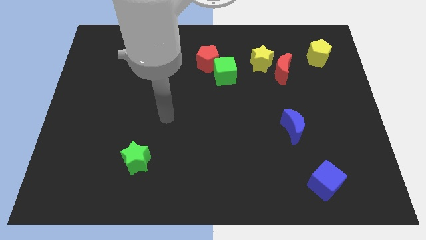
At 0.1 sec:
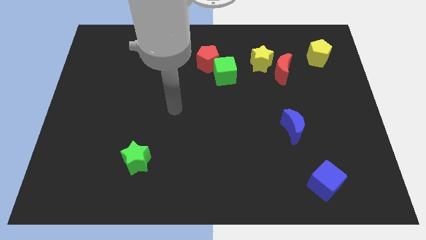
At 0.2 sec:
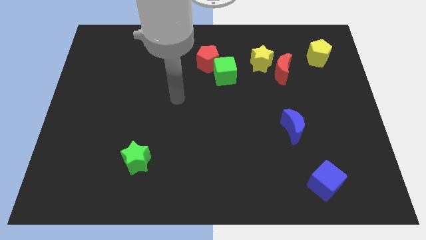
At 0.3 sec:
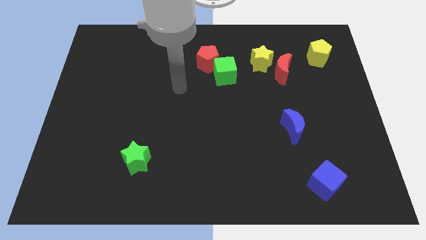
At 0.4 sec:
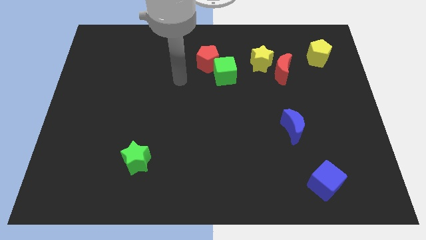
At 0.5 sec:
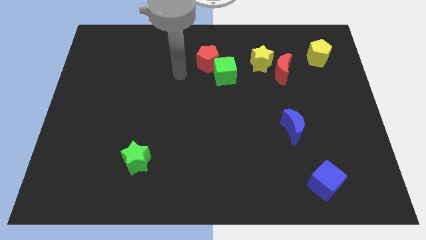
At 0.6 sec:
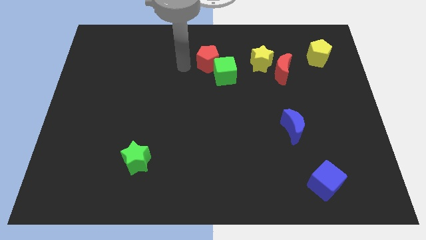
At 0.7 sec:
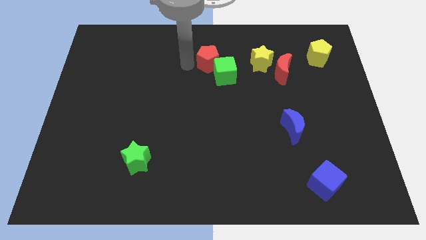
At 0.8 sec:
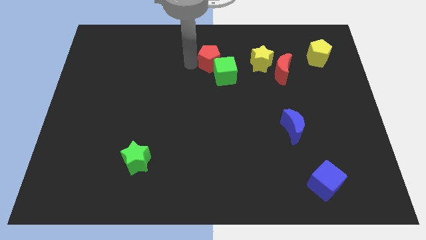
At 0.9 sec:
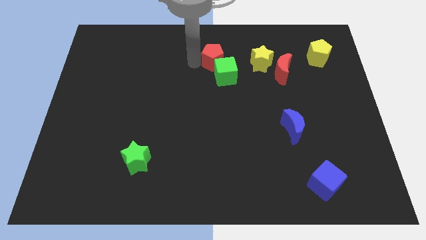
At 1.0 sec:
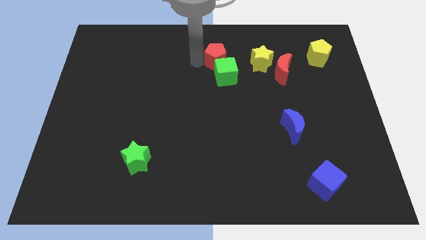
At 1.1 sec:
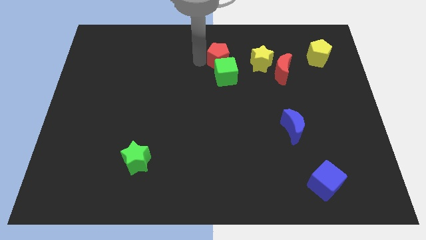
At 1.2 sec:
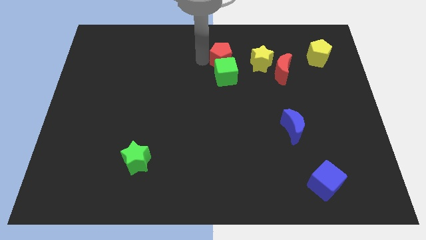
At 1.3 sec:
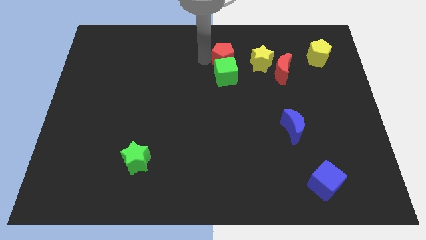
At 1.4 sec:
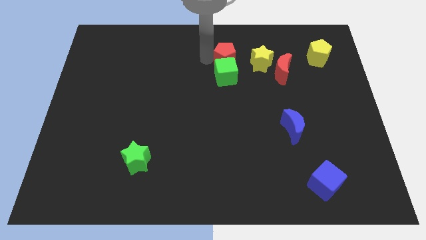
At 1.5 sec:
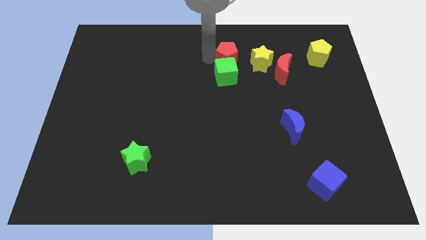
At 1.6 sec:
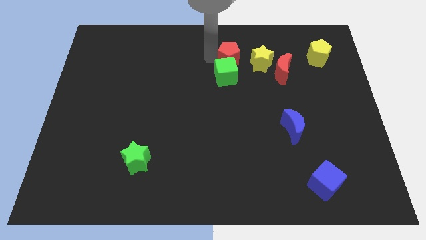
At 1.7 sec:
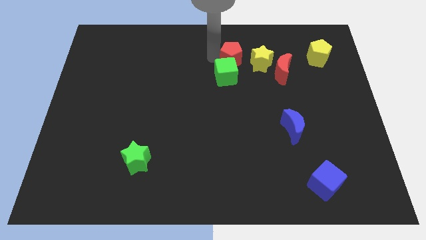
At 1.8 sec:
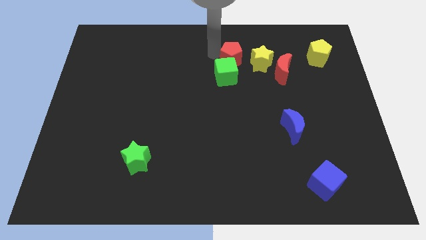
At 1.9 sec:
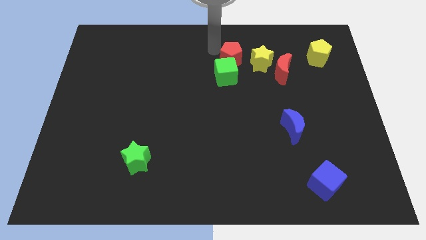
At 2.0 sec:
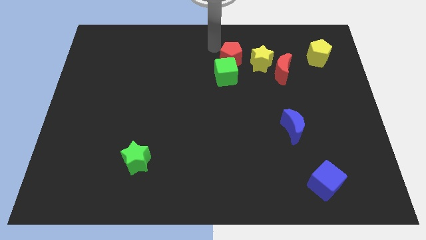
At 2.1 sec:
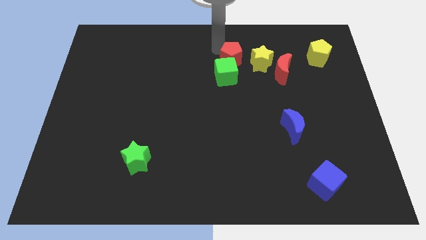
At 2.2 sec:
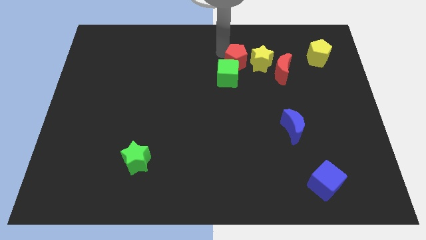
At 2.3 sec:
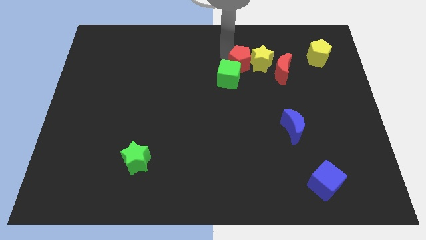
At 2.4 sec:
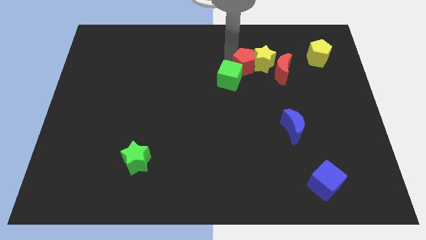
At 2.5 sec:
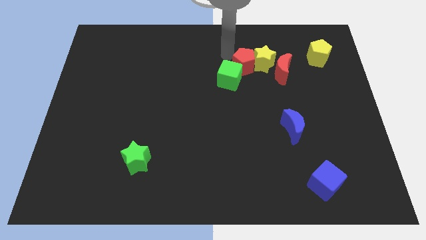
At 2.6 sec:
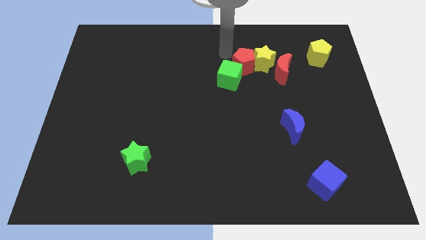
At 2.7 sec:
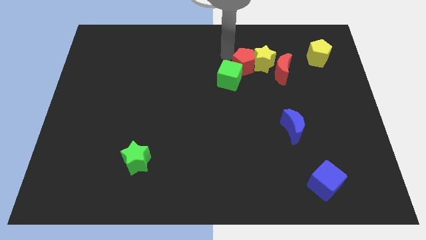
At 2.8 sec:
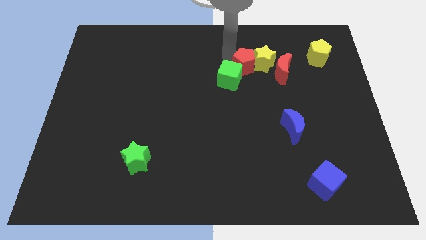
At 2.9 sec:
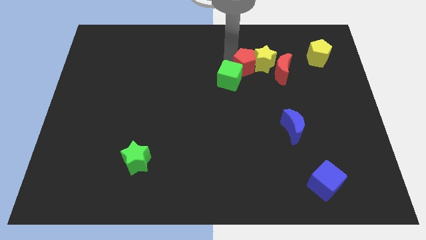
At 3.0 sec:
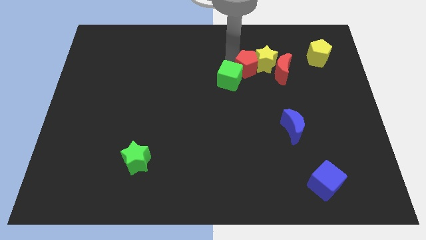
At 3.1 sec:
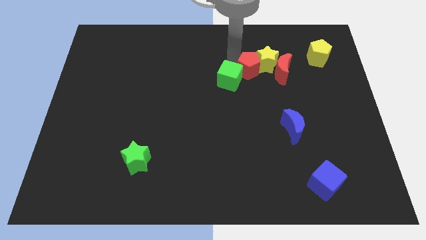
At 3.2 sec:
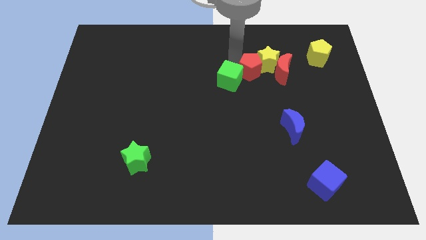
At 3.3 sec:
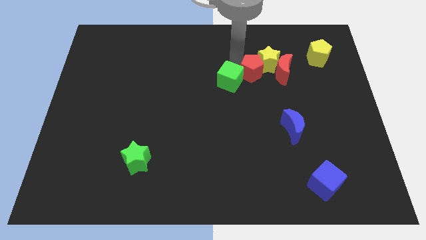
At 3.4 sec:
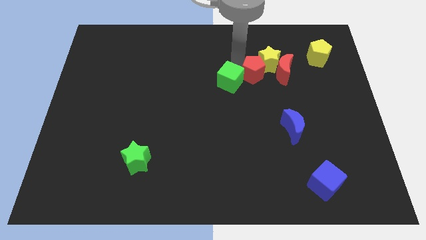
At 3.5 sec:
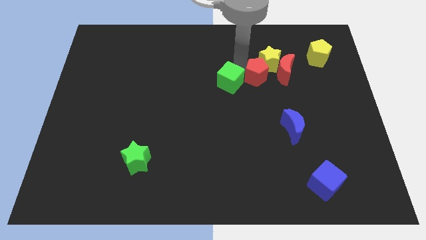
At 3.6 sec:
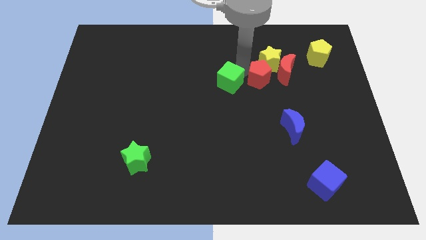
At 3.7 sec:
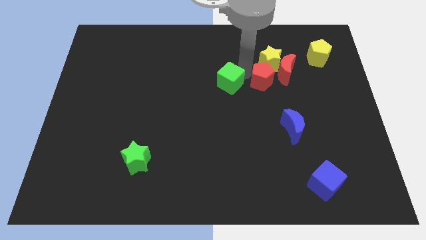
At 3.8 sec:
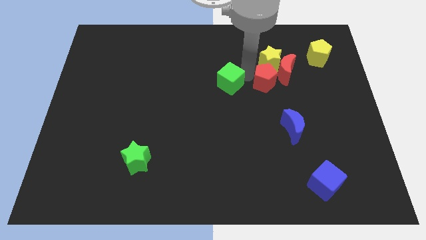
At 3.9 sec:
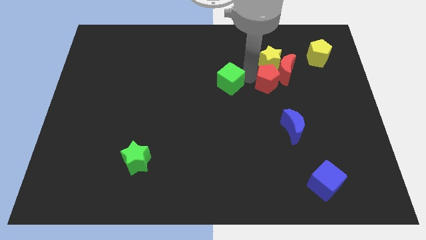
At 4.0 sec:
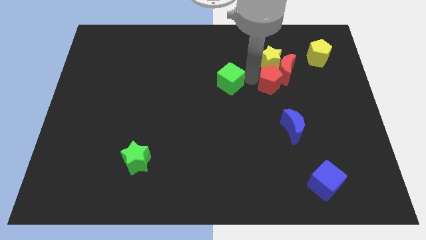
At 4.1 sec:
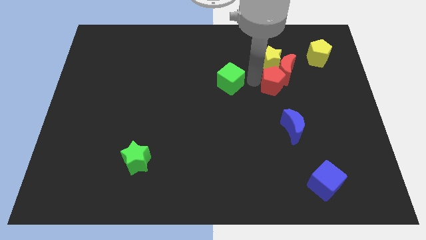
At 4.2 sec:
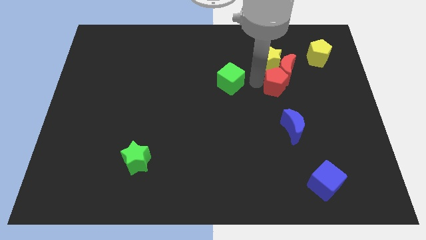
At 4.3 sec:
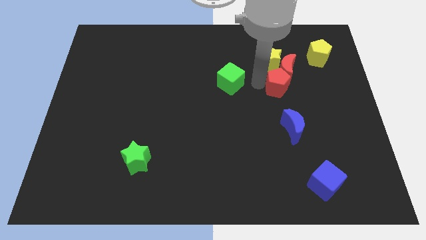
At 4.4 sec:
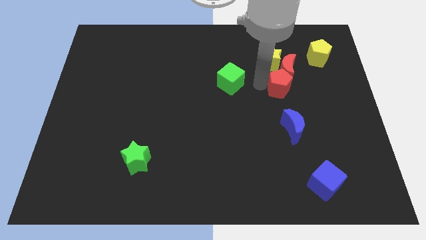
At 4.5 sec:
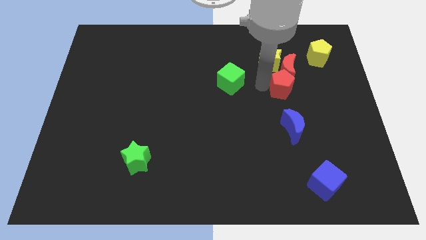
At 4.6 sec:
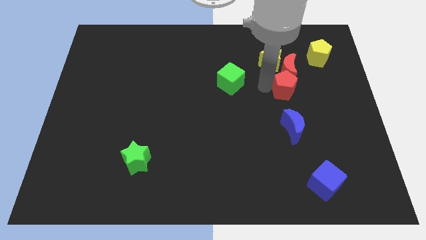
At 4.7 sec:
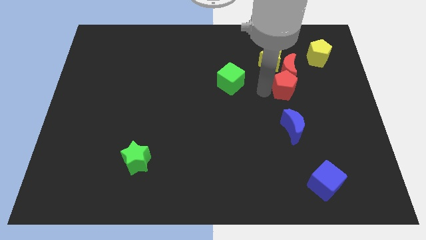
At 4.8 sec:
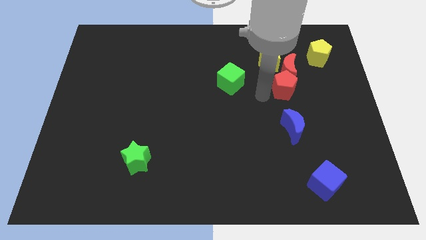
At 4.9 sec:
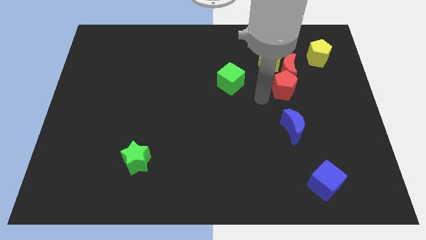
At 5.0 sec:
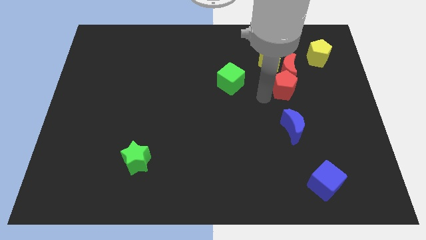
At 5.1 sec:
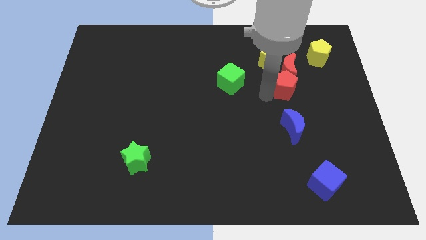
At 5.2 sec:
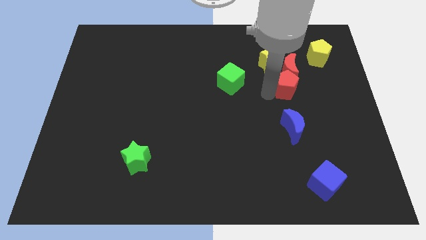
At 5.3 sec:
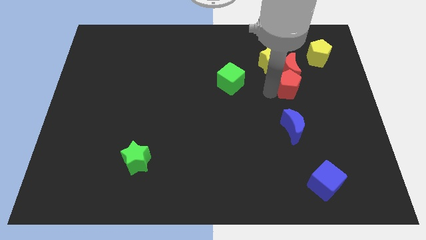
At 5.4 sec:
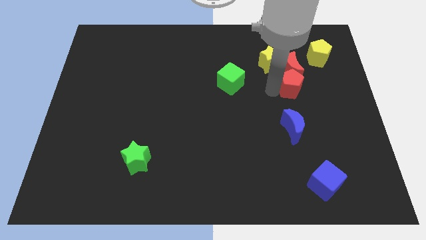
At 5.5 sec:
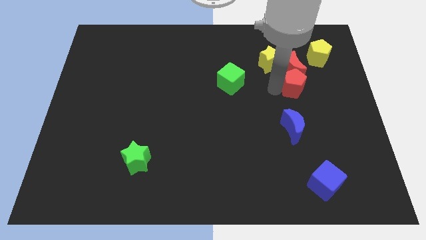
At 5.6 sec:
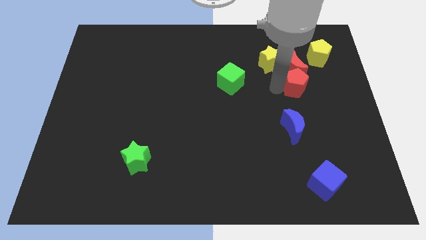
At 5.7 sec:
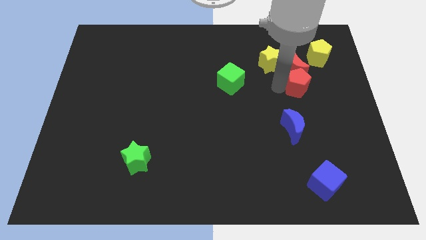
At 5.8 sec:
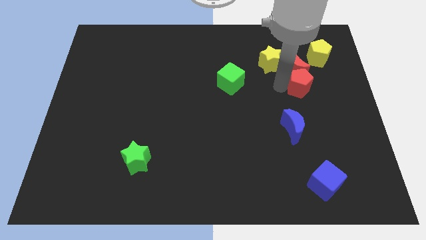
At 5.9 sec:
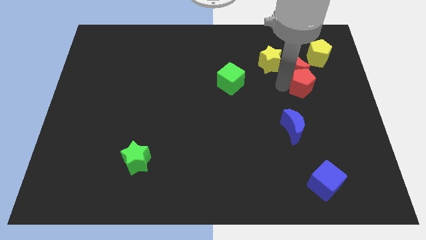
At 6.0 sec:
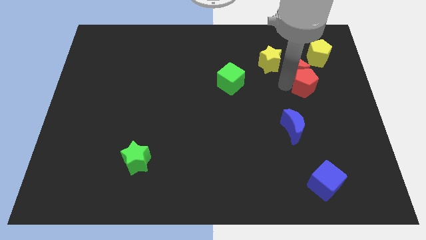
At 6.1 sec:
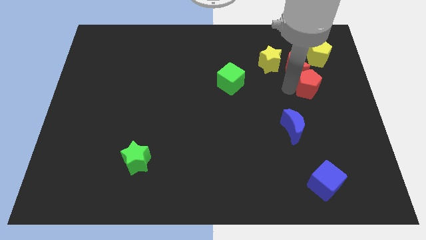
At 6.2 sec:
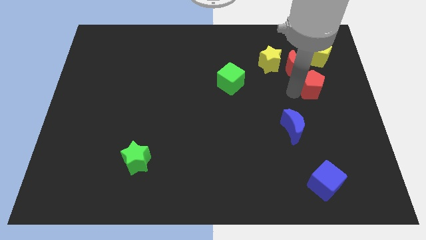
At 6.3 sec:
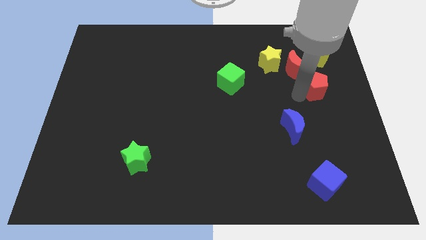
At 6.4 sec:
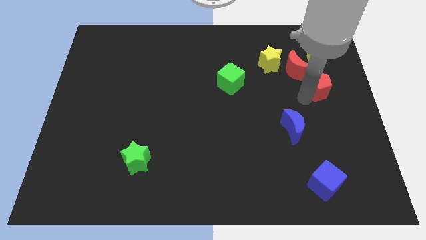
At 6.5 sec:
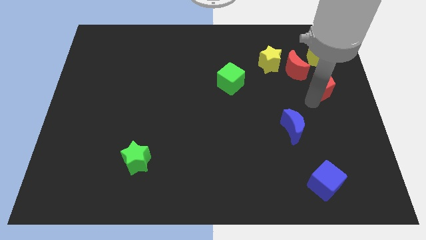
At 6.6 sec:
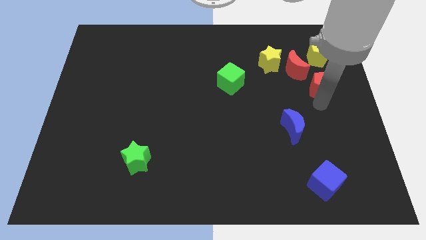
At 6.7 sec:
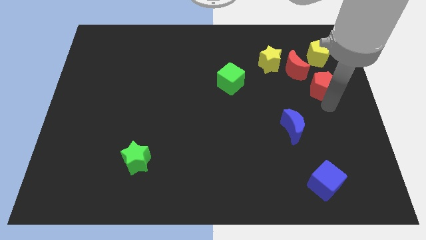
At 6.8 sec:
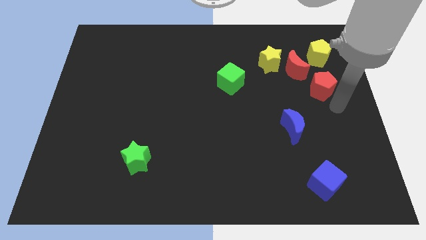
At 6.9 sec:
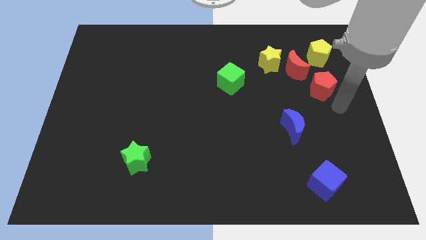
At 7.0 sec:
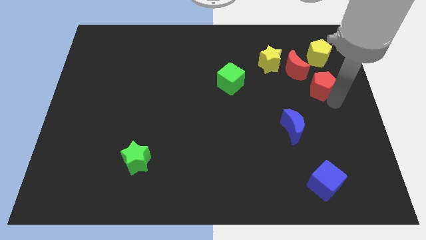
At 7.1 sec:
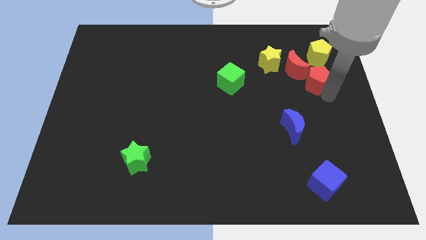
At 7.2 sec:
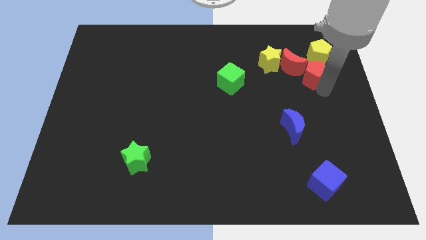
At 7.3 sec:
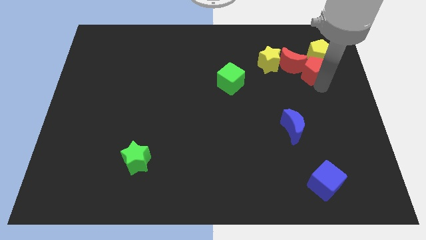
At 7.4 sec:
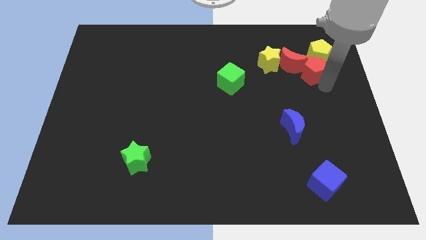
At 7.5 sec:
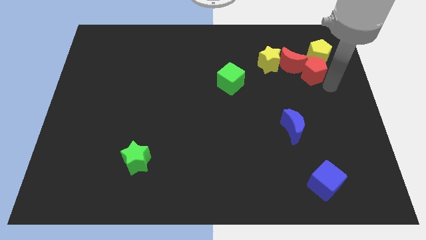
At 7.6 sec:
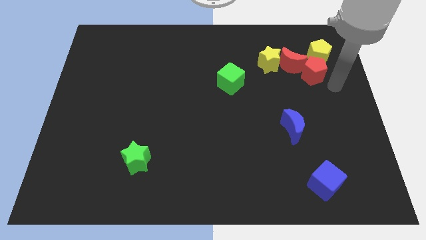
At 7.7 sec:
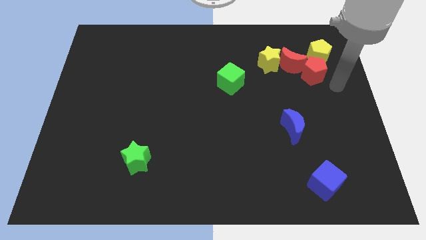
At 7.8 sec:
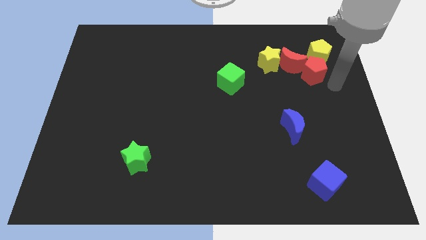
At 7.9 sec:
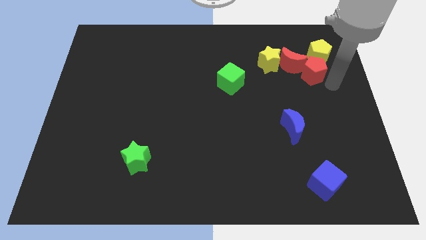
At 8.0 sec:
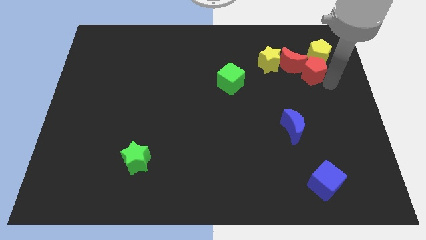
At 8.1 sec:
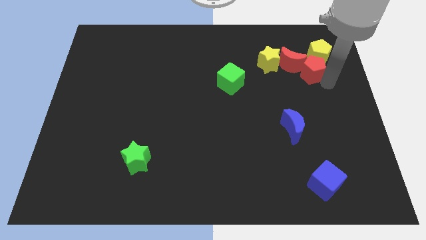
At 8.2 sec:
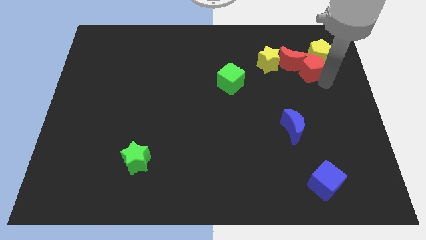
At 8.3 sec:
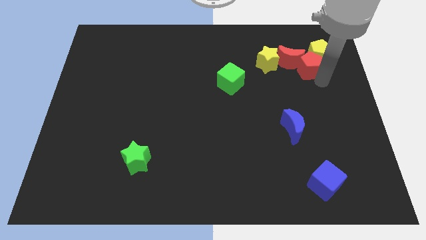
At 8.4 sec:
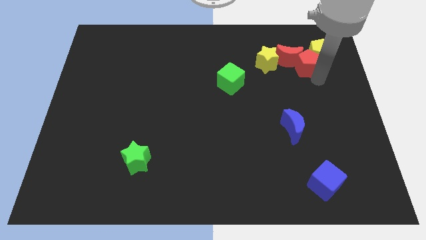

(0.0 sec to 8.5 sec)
put the red pentagon to the left of the yellow pentagon

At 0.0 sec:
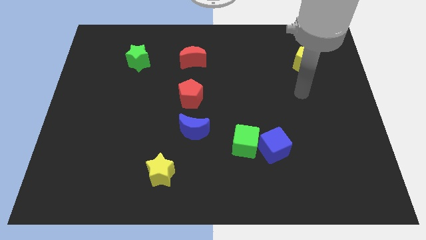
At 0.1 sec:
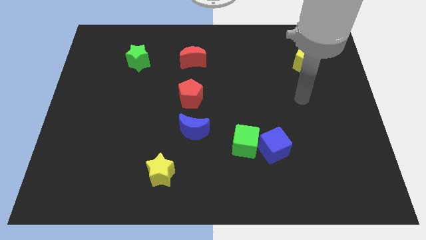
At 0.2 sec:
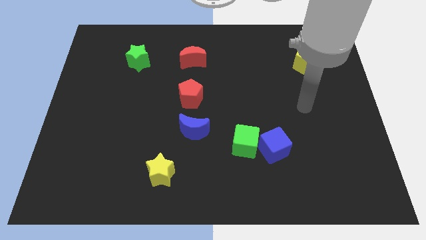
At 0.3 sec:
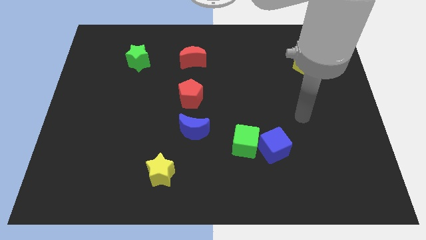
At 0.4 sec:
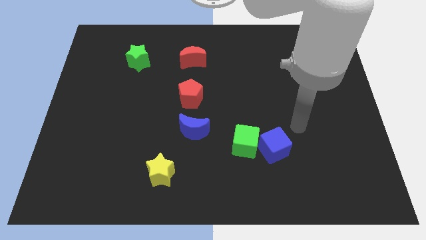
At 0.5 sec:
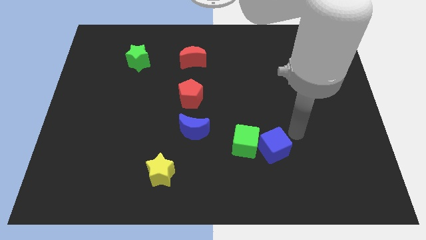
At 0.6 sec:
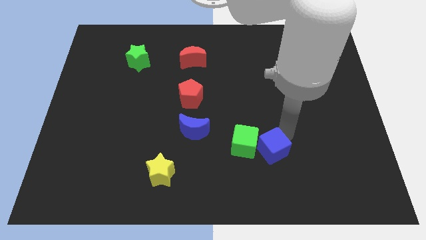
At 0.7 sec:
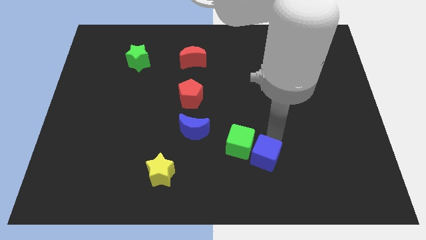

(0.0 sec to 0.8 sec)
push the green cube to the bottom right of the blue moon
